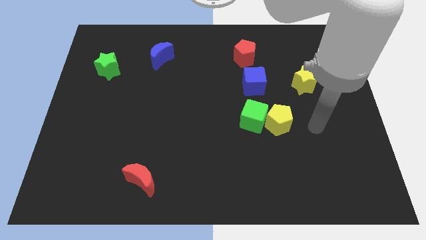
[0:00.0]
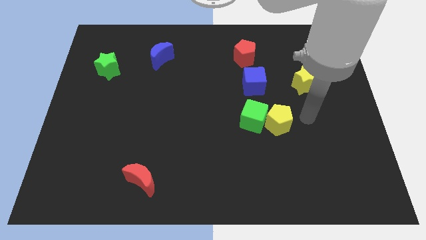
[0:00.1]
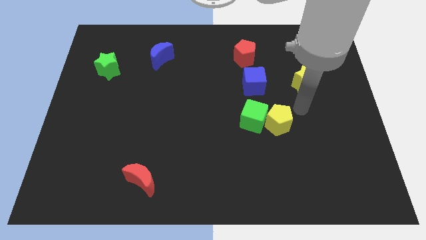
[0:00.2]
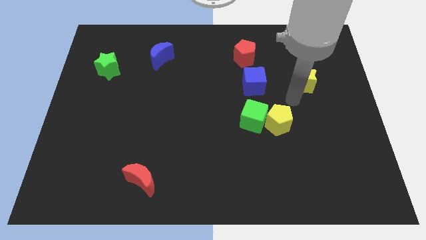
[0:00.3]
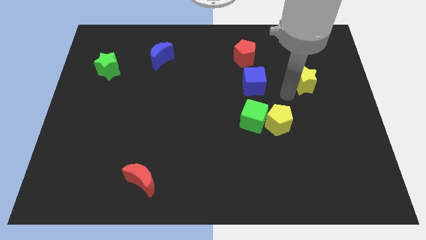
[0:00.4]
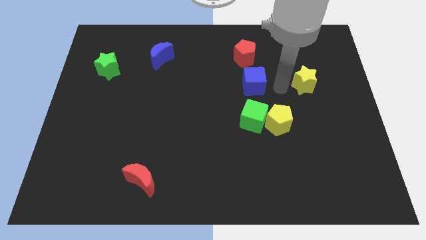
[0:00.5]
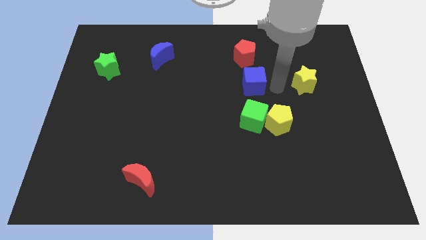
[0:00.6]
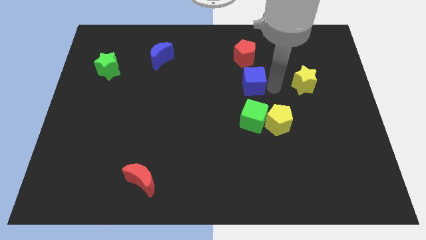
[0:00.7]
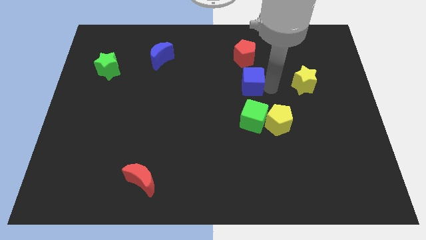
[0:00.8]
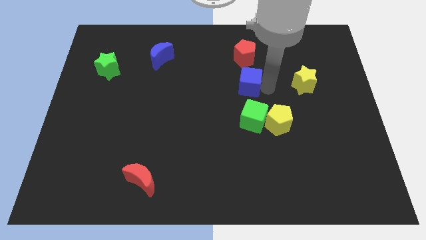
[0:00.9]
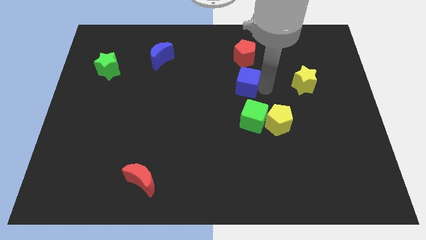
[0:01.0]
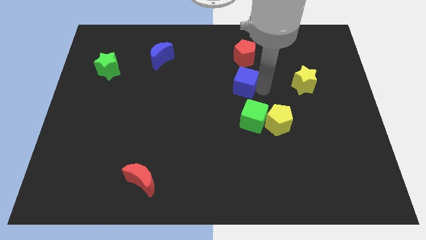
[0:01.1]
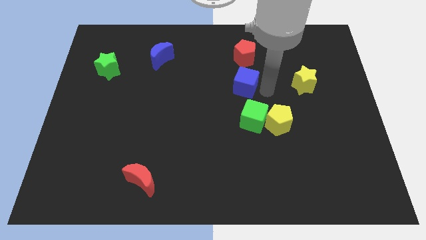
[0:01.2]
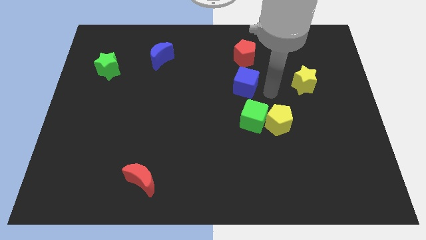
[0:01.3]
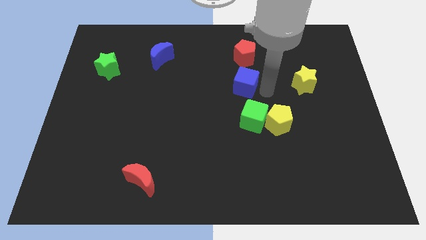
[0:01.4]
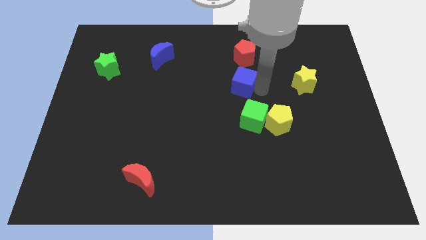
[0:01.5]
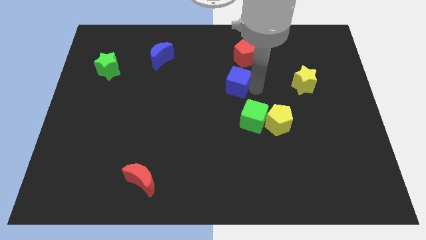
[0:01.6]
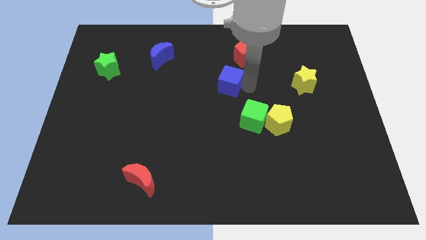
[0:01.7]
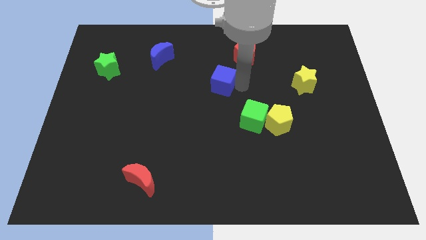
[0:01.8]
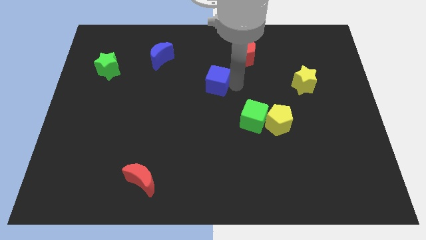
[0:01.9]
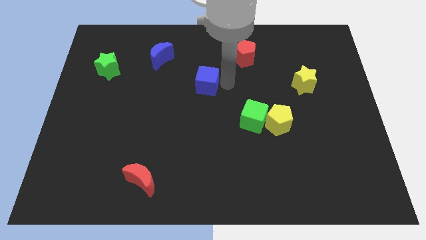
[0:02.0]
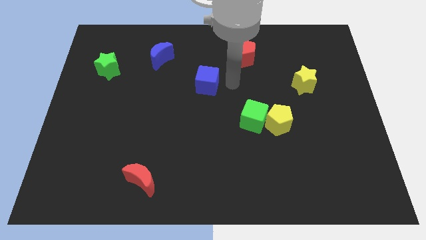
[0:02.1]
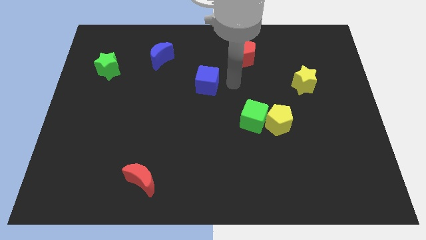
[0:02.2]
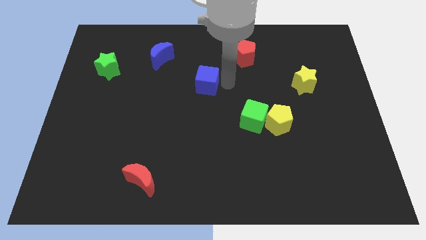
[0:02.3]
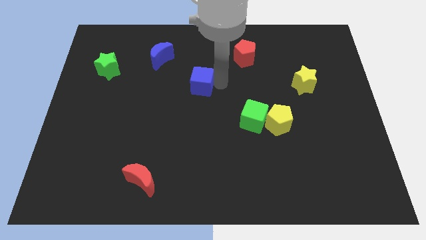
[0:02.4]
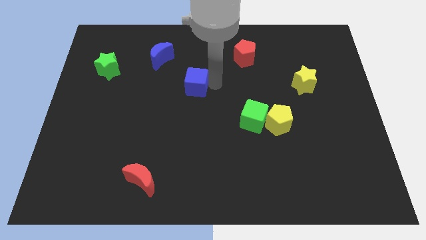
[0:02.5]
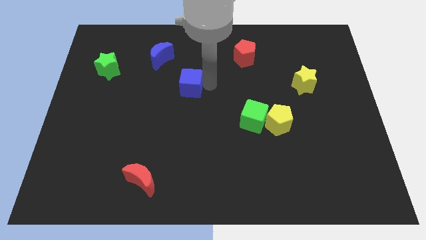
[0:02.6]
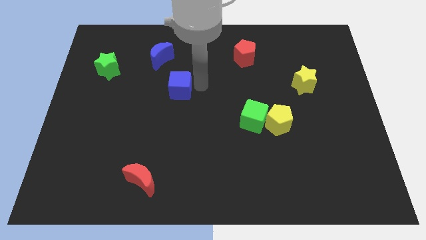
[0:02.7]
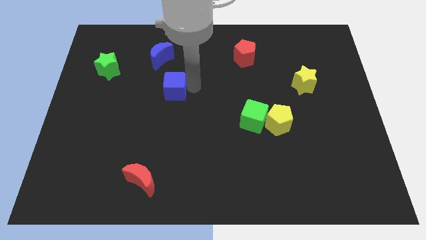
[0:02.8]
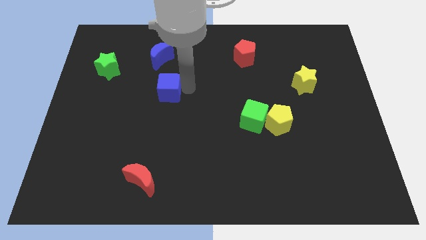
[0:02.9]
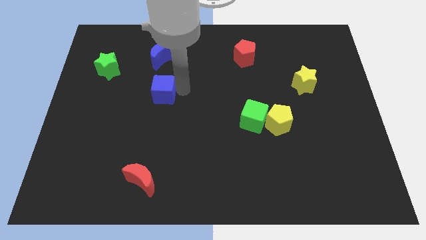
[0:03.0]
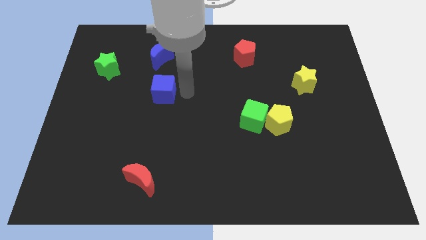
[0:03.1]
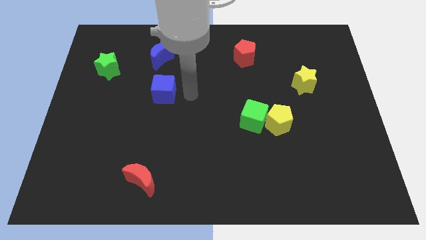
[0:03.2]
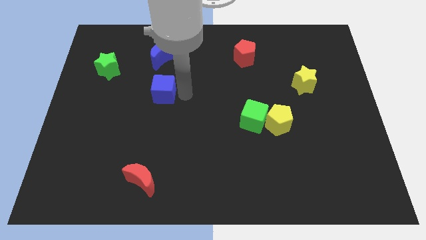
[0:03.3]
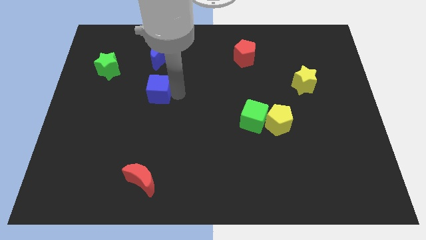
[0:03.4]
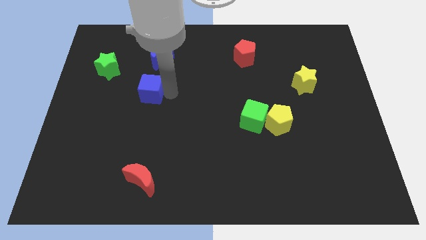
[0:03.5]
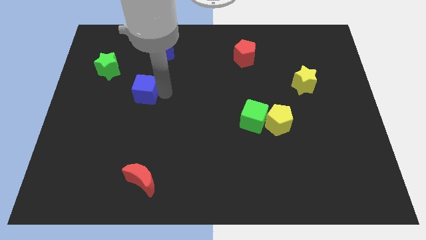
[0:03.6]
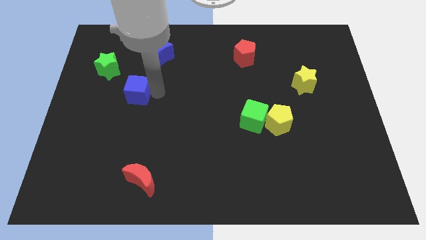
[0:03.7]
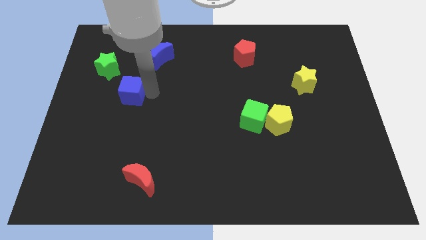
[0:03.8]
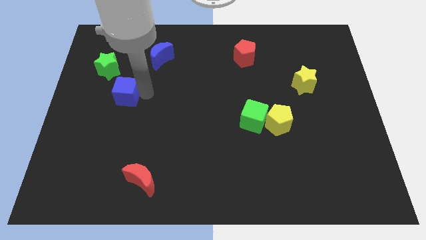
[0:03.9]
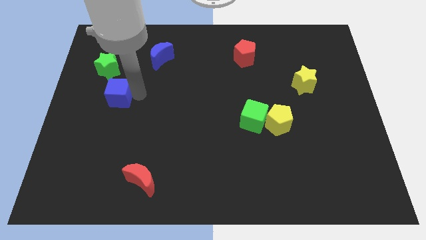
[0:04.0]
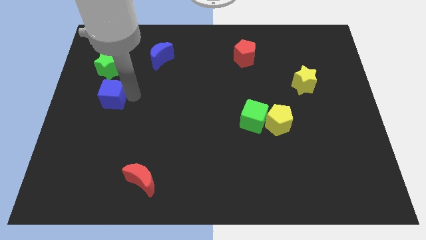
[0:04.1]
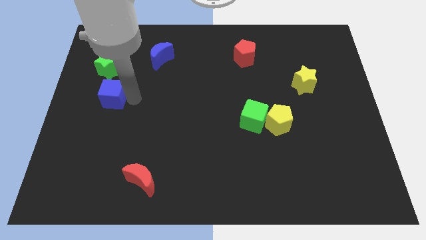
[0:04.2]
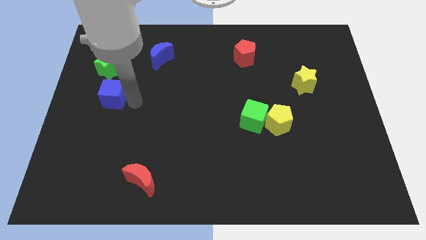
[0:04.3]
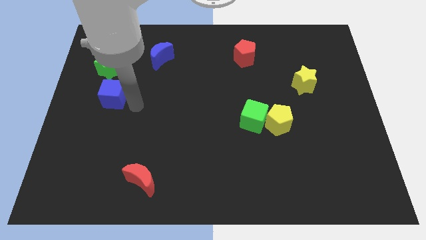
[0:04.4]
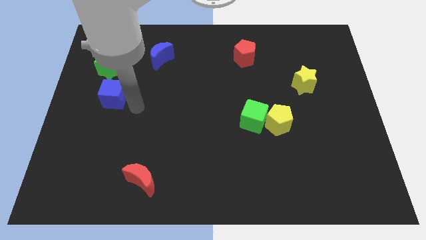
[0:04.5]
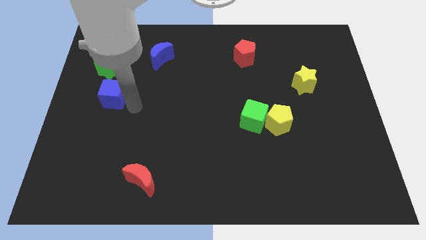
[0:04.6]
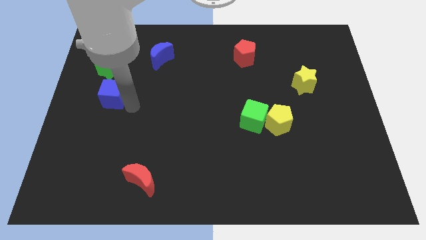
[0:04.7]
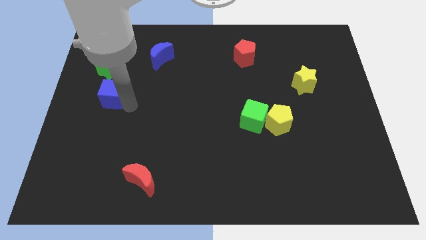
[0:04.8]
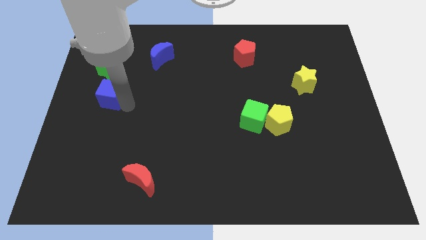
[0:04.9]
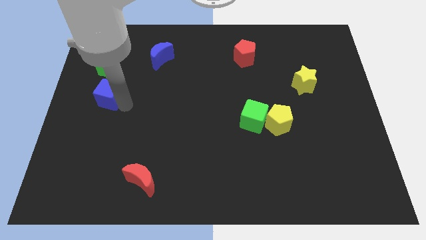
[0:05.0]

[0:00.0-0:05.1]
move the blue cube to the left side of the board

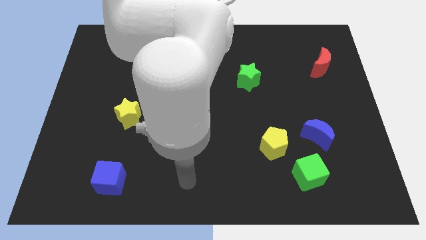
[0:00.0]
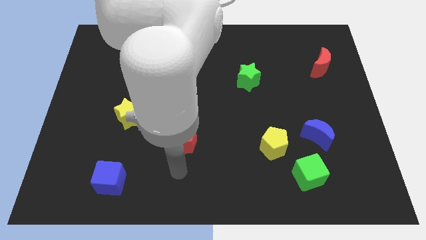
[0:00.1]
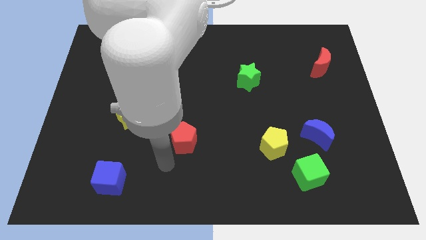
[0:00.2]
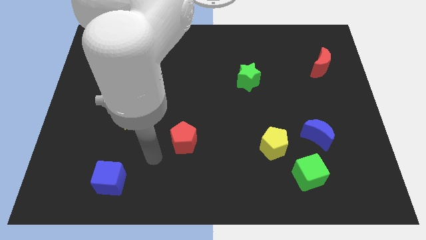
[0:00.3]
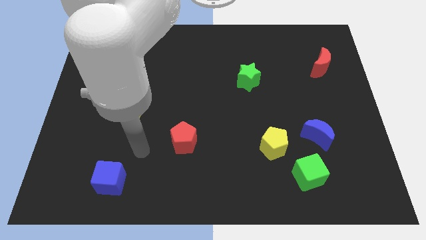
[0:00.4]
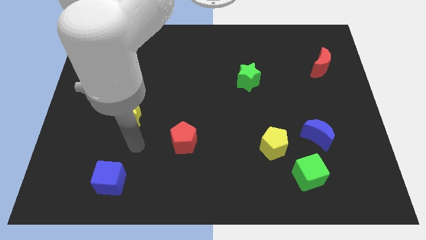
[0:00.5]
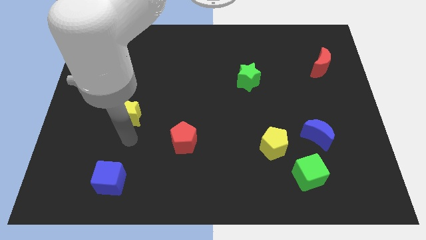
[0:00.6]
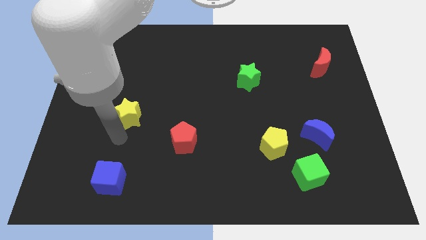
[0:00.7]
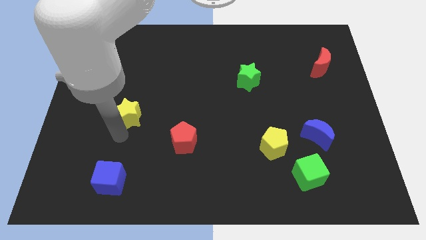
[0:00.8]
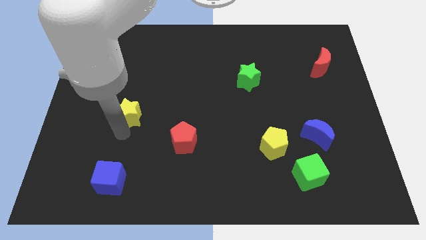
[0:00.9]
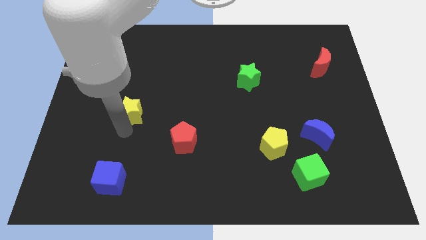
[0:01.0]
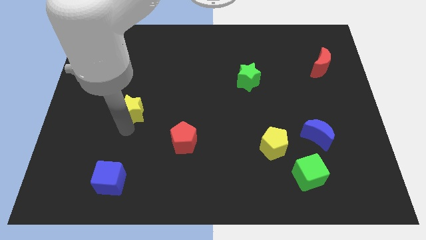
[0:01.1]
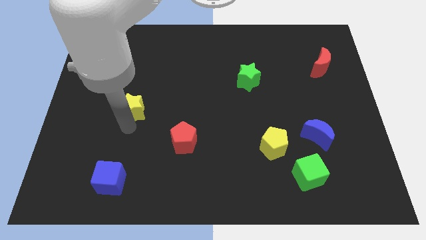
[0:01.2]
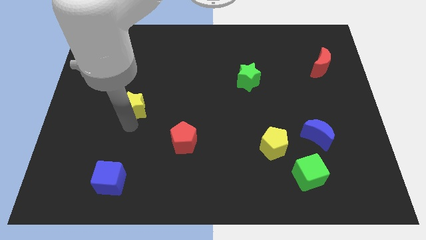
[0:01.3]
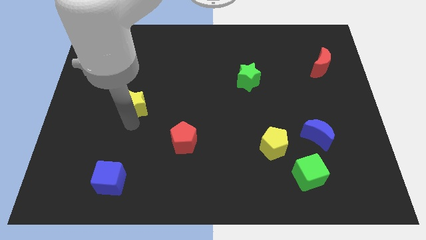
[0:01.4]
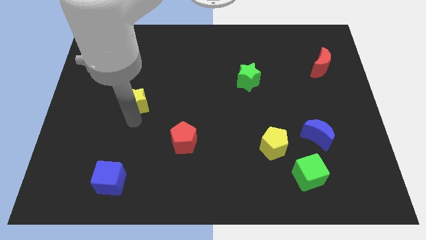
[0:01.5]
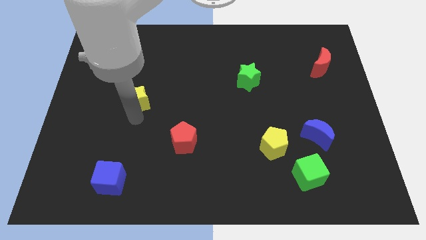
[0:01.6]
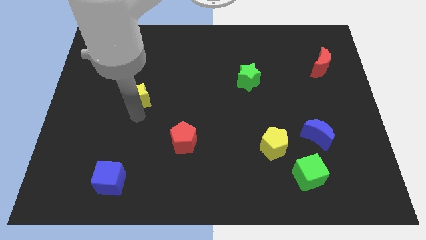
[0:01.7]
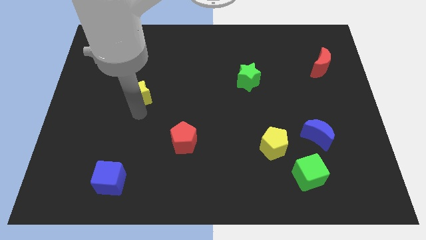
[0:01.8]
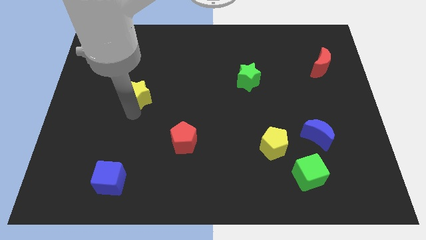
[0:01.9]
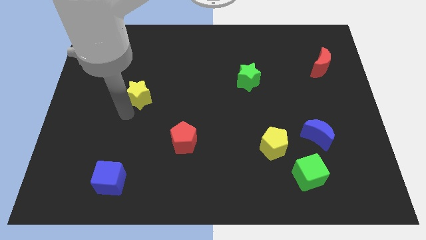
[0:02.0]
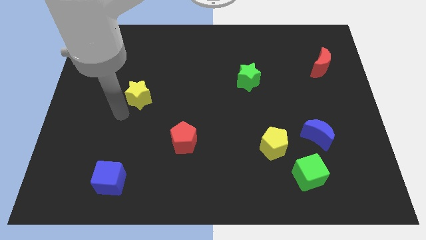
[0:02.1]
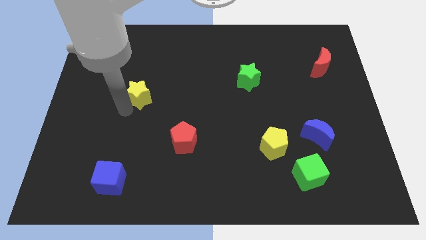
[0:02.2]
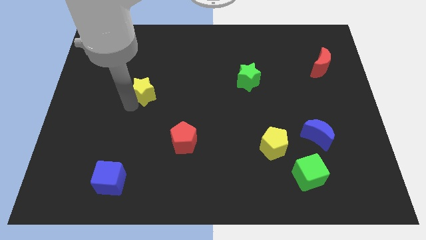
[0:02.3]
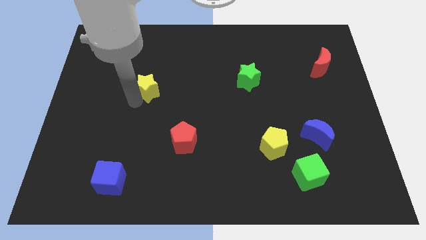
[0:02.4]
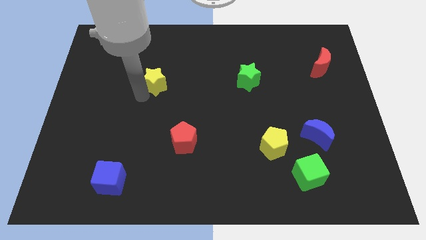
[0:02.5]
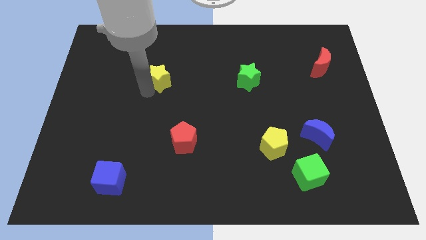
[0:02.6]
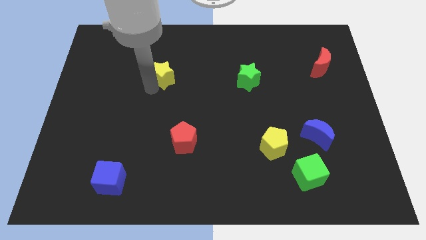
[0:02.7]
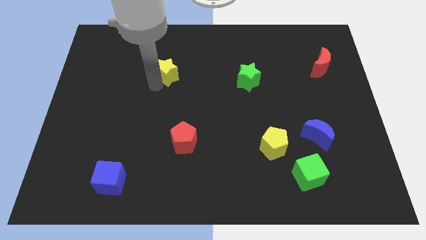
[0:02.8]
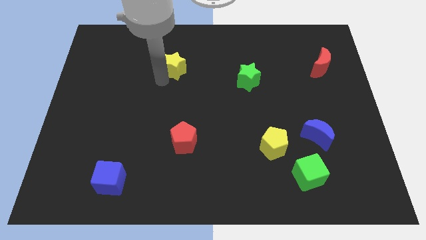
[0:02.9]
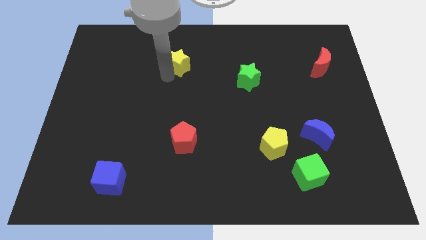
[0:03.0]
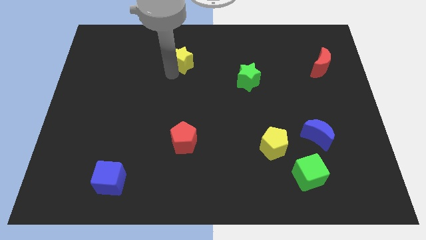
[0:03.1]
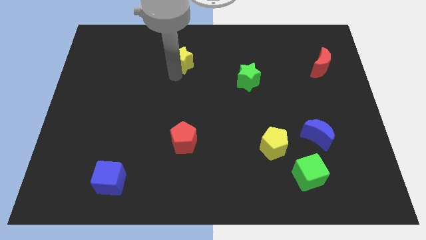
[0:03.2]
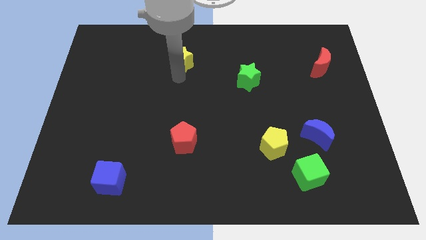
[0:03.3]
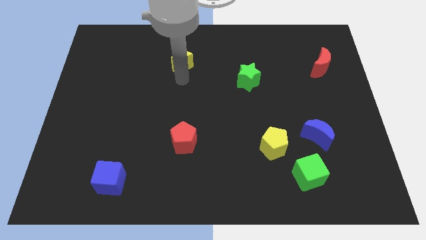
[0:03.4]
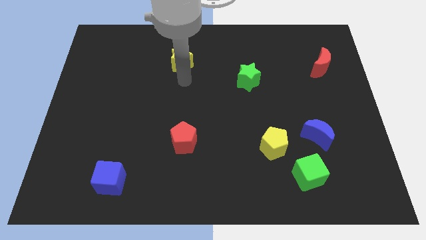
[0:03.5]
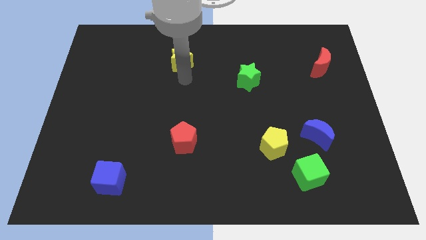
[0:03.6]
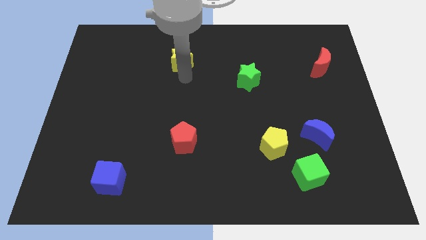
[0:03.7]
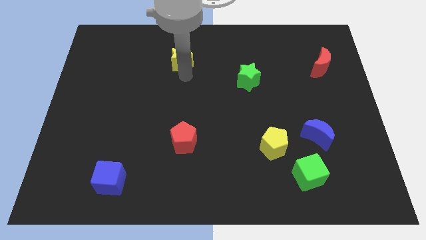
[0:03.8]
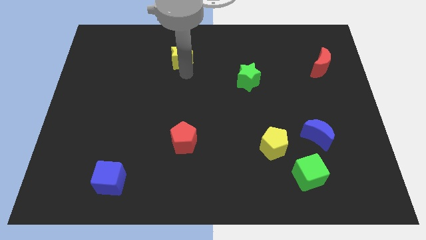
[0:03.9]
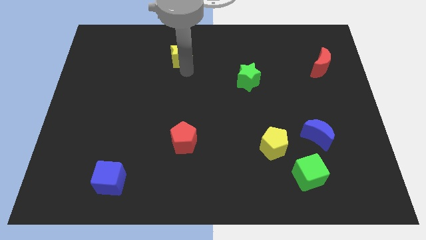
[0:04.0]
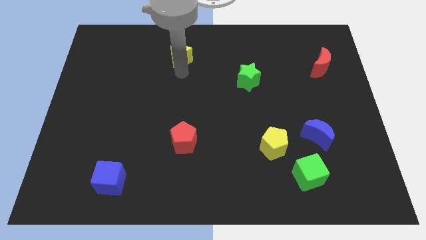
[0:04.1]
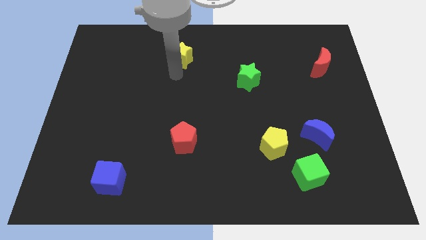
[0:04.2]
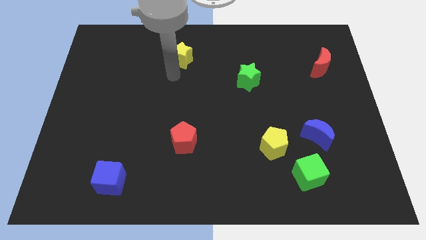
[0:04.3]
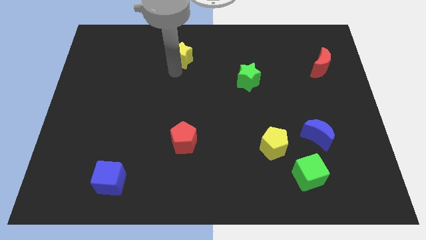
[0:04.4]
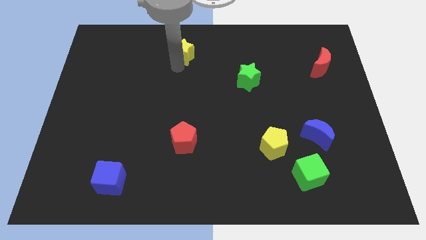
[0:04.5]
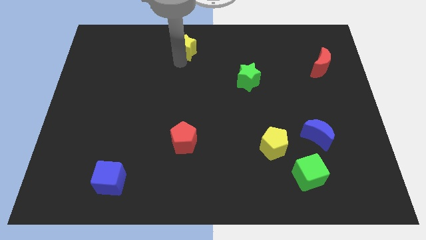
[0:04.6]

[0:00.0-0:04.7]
push the yellow star to the towards your base
